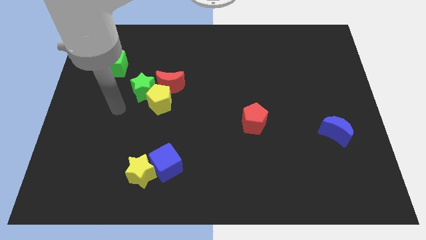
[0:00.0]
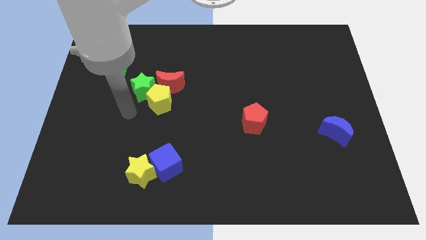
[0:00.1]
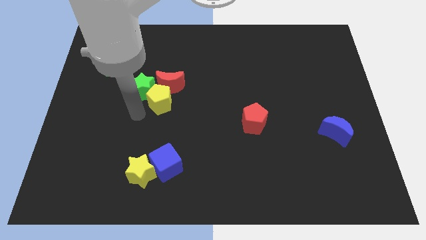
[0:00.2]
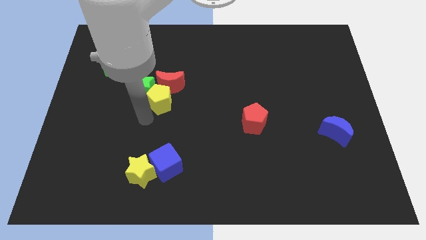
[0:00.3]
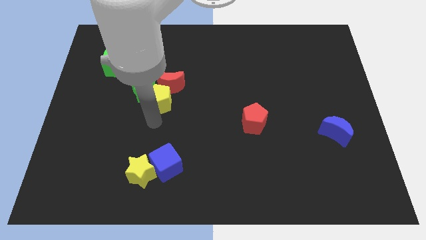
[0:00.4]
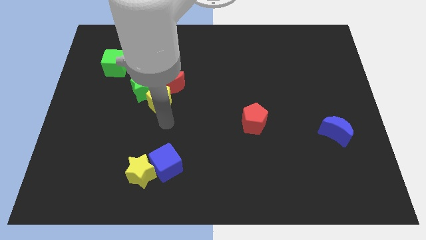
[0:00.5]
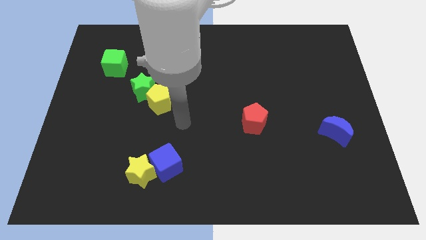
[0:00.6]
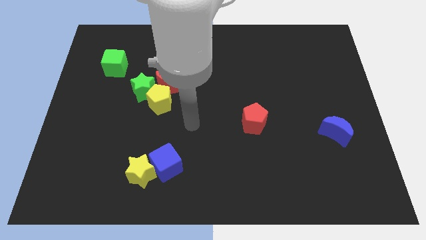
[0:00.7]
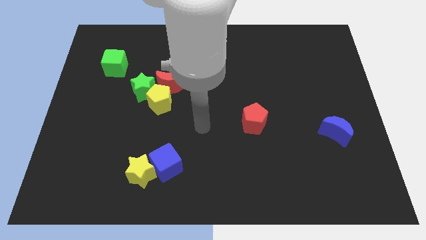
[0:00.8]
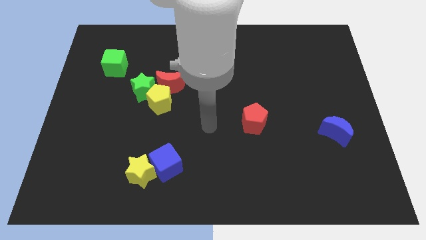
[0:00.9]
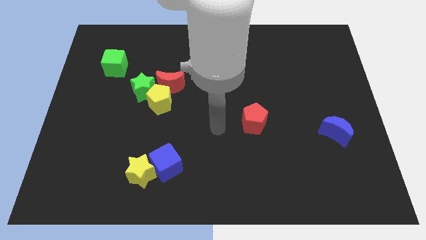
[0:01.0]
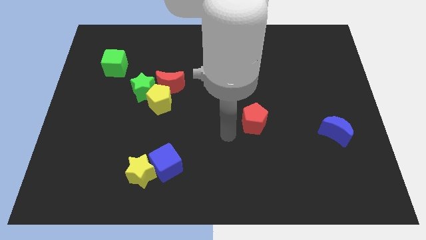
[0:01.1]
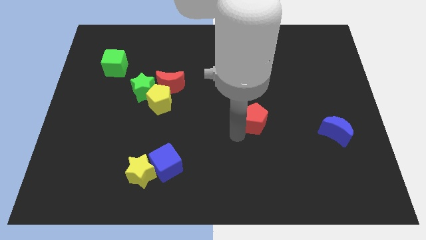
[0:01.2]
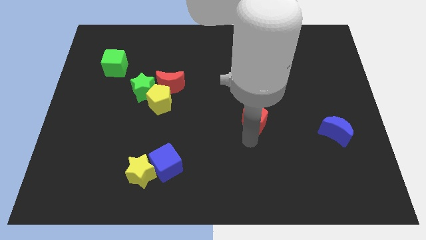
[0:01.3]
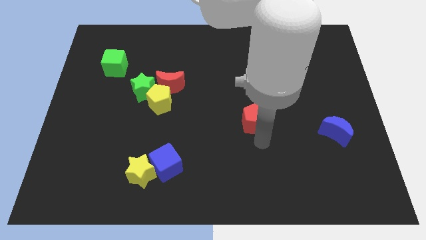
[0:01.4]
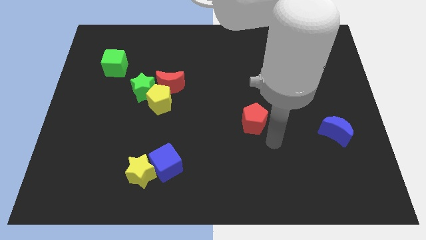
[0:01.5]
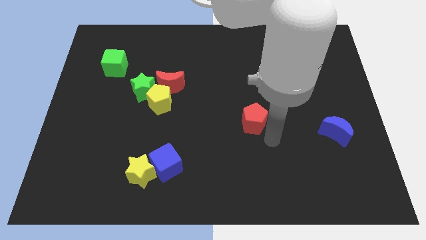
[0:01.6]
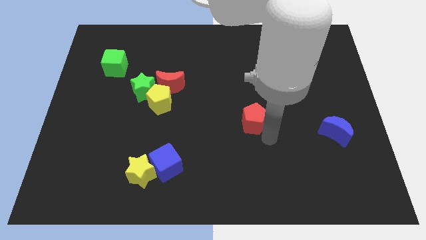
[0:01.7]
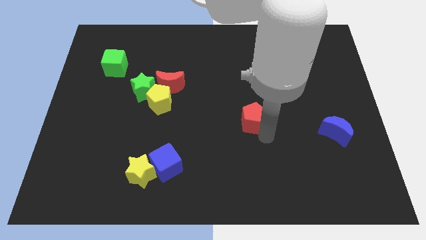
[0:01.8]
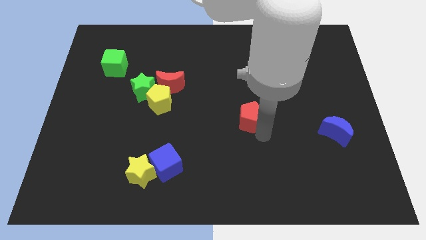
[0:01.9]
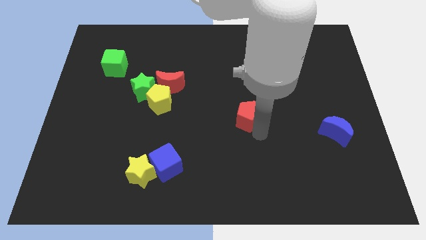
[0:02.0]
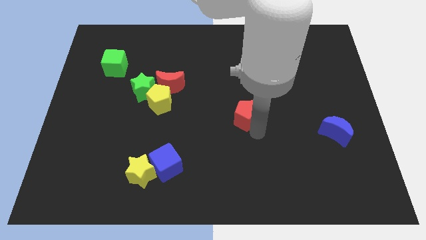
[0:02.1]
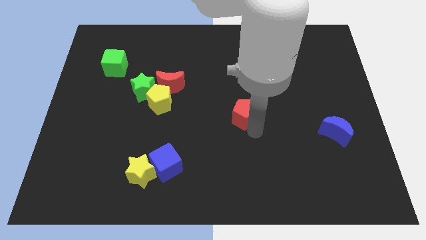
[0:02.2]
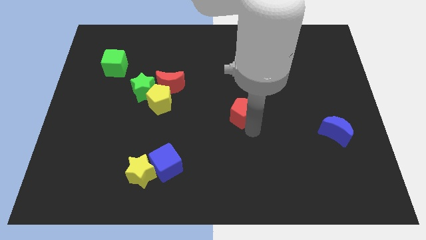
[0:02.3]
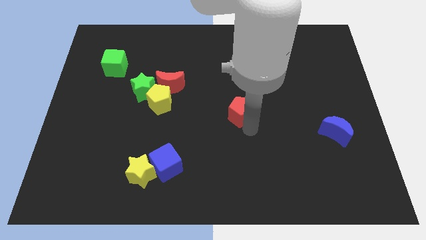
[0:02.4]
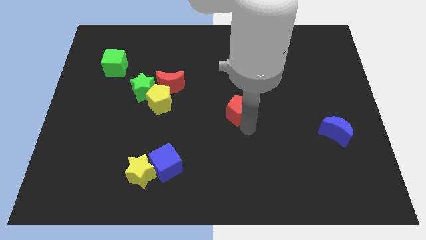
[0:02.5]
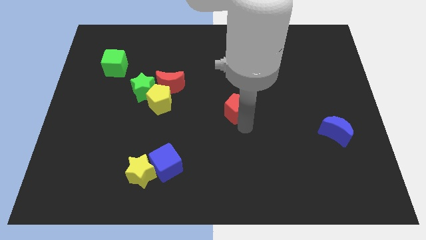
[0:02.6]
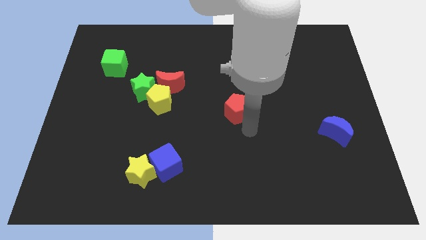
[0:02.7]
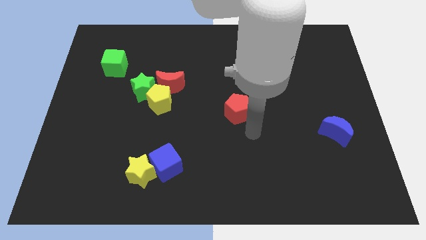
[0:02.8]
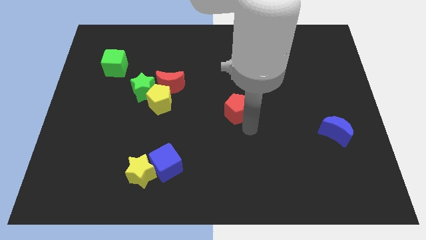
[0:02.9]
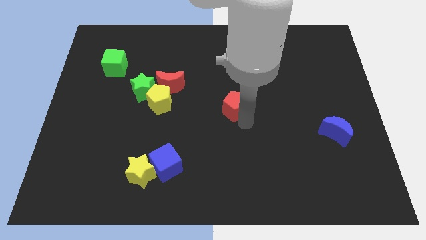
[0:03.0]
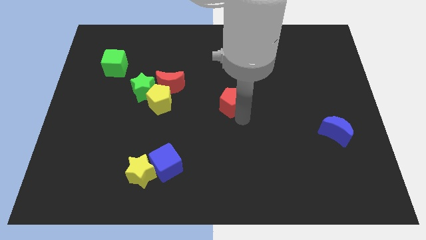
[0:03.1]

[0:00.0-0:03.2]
slightly slide the red pentagon up and left diagonally

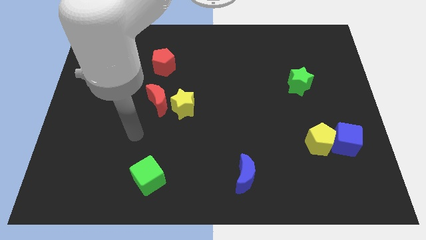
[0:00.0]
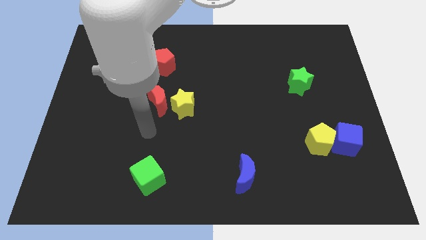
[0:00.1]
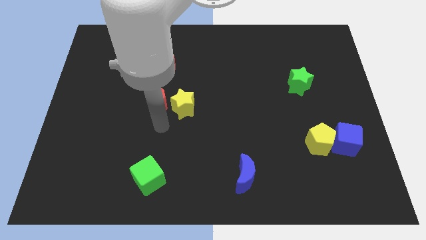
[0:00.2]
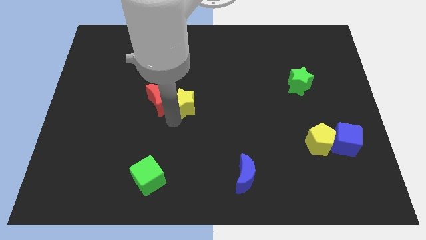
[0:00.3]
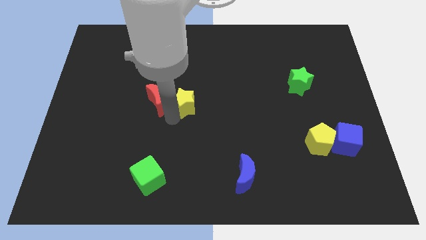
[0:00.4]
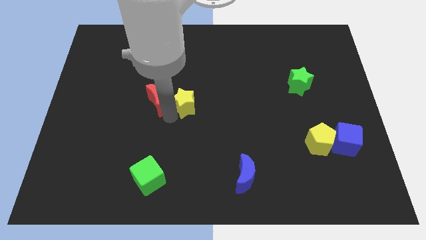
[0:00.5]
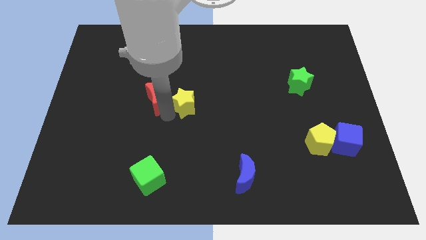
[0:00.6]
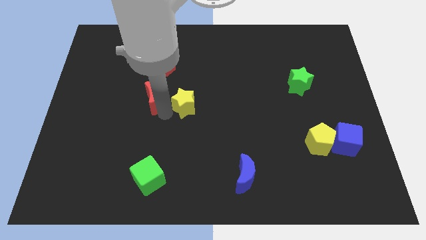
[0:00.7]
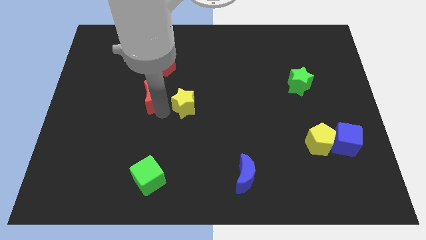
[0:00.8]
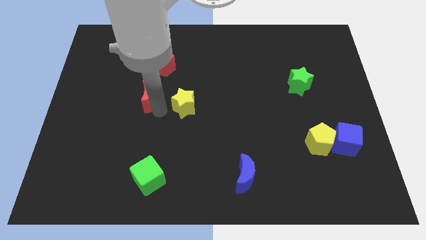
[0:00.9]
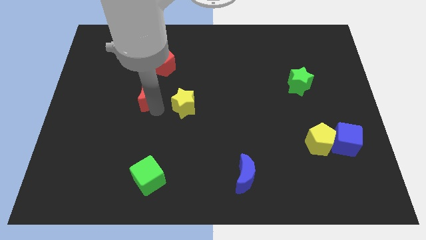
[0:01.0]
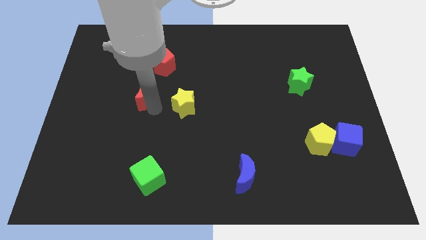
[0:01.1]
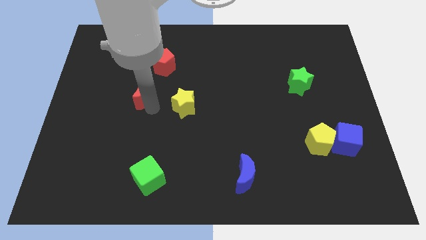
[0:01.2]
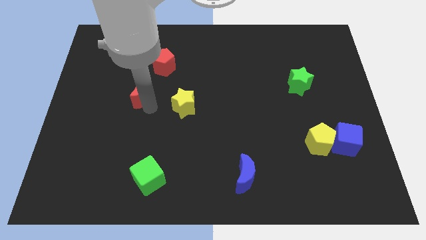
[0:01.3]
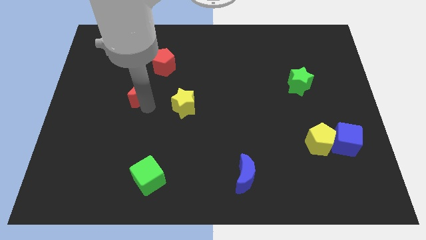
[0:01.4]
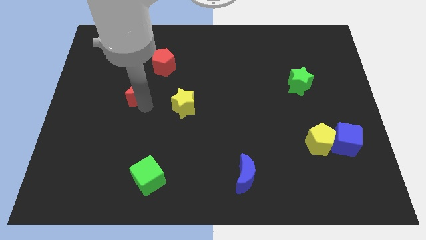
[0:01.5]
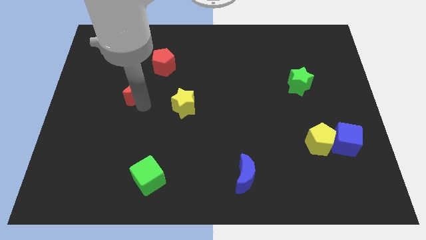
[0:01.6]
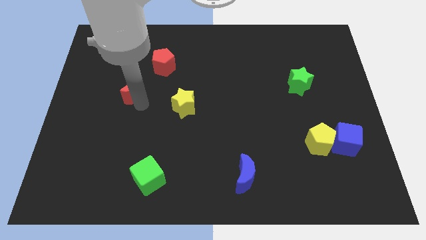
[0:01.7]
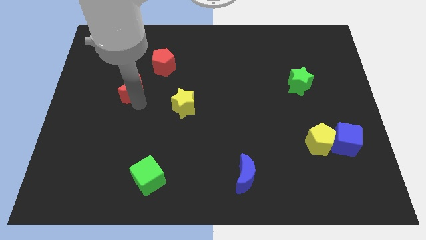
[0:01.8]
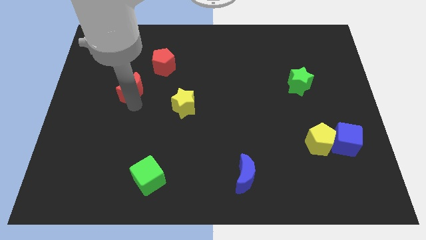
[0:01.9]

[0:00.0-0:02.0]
slightly push the red moon up and then to the left

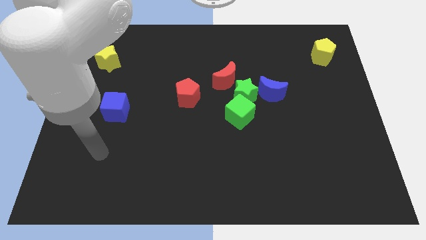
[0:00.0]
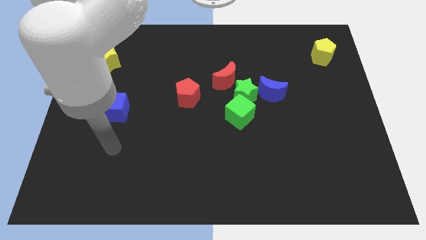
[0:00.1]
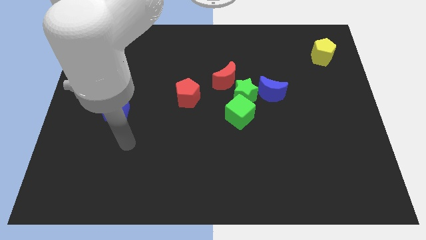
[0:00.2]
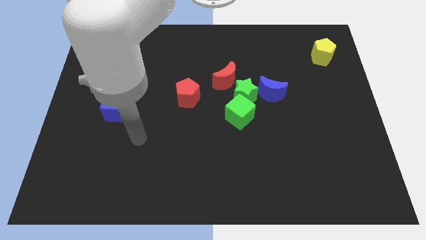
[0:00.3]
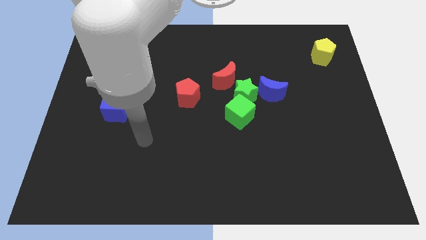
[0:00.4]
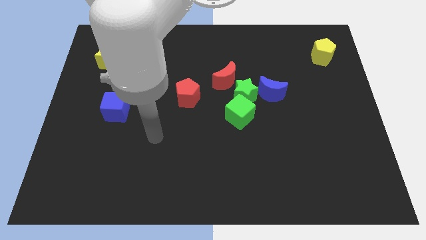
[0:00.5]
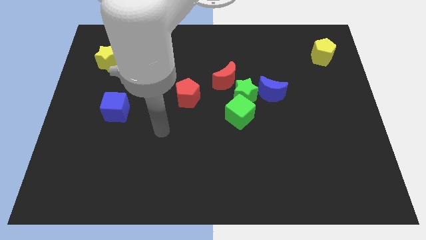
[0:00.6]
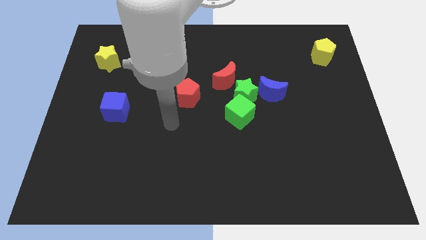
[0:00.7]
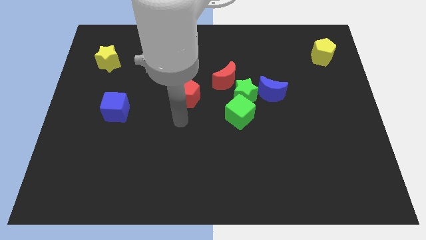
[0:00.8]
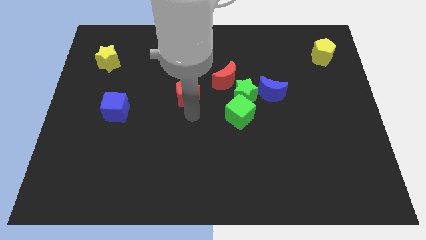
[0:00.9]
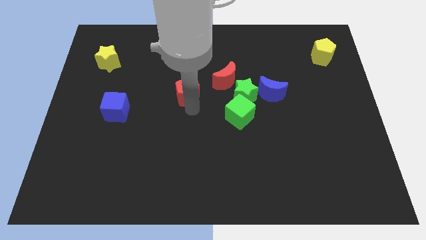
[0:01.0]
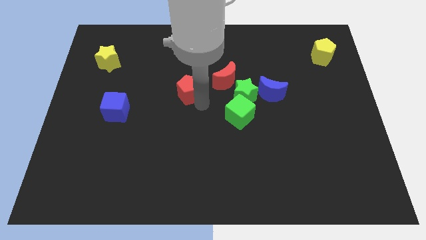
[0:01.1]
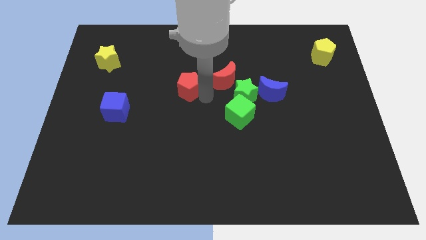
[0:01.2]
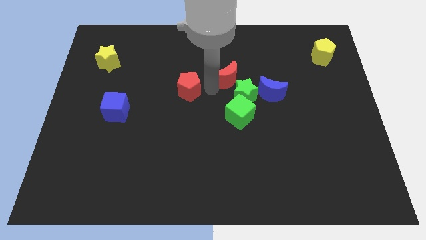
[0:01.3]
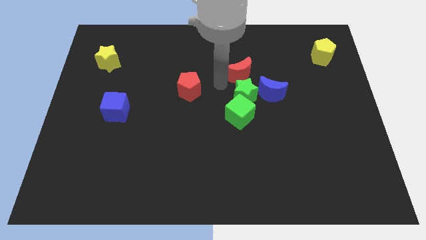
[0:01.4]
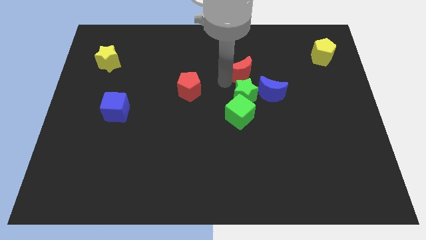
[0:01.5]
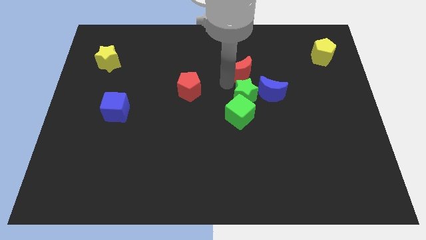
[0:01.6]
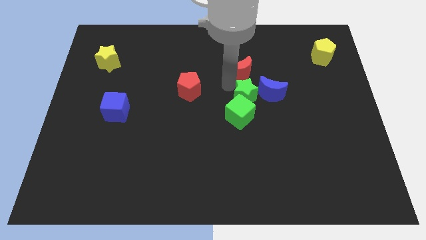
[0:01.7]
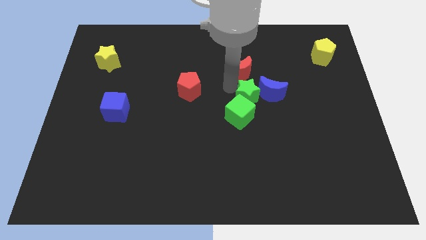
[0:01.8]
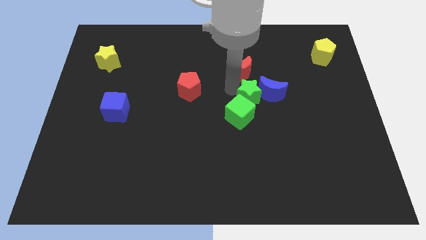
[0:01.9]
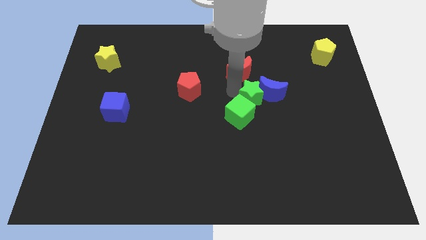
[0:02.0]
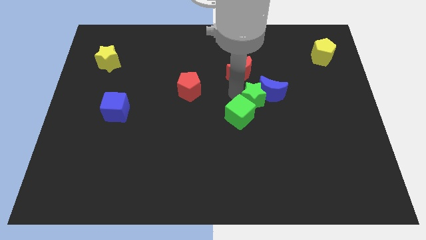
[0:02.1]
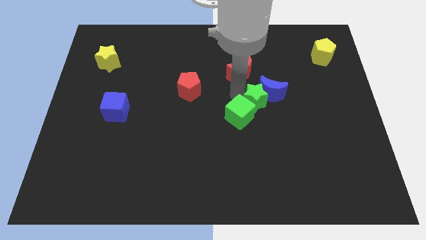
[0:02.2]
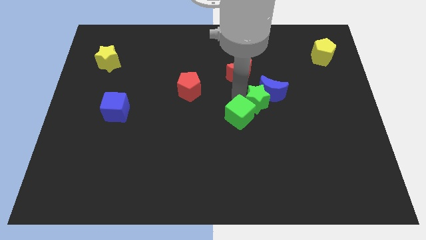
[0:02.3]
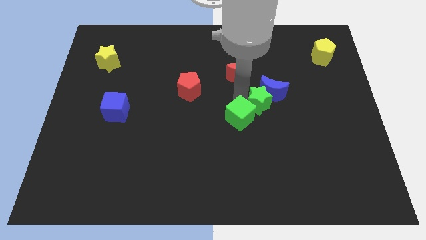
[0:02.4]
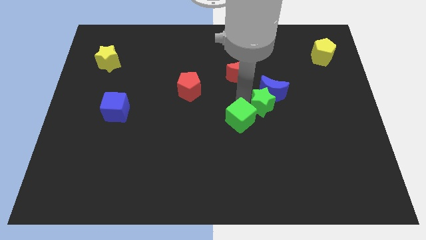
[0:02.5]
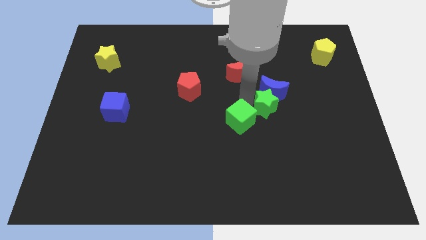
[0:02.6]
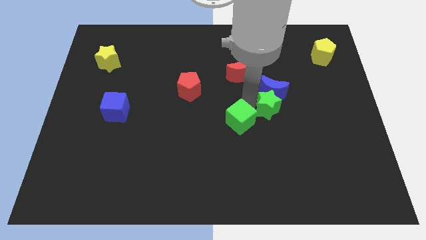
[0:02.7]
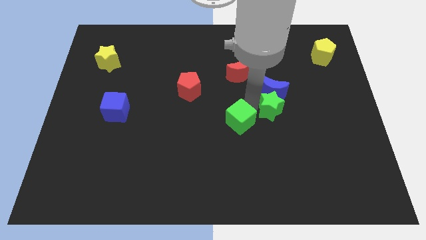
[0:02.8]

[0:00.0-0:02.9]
push the green star a little diagonally downwards and right
